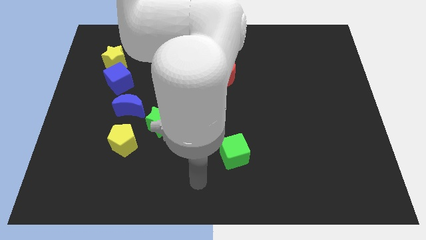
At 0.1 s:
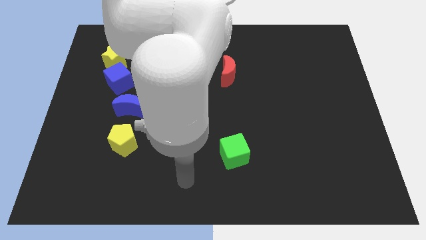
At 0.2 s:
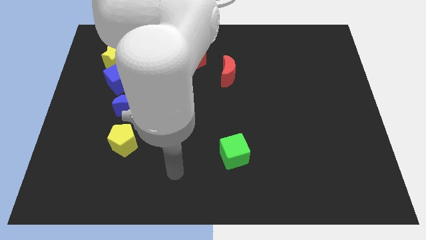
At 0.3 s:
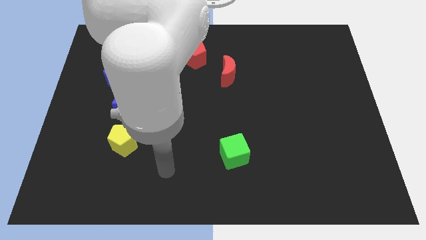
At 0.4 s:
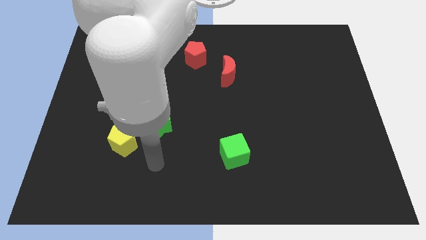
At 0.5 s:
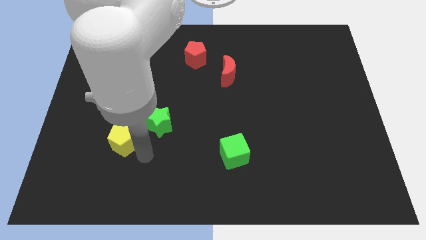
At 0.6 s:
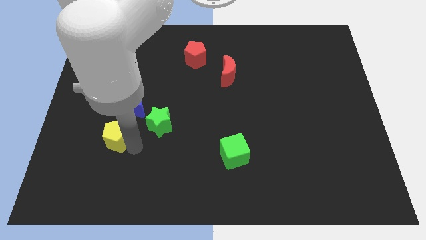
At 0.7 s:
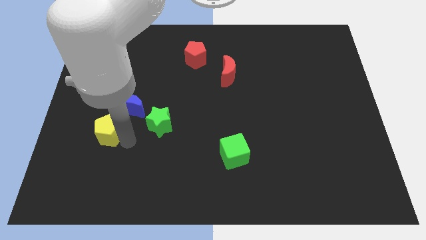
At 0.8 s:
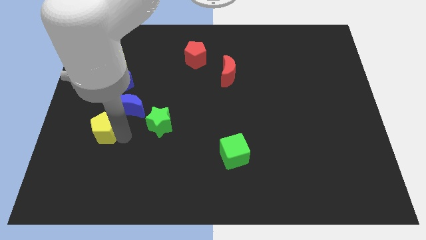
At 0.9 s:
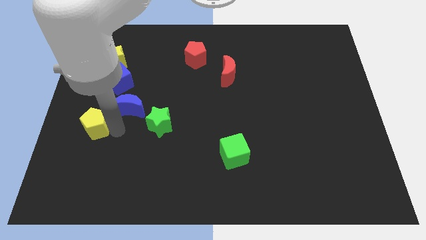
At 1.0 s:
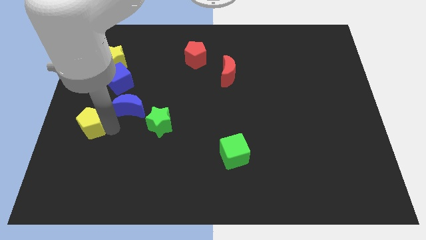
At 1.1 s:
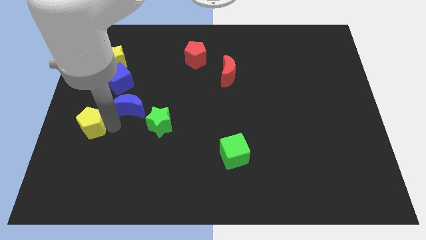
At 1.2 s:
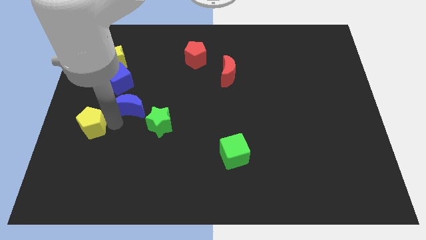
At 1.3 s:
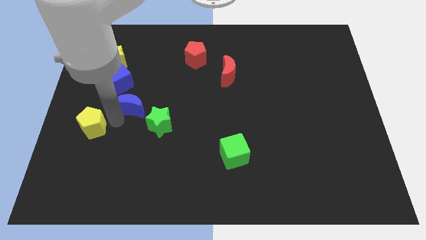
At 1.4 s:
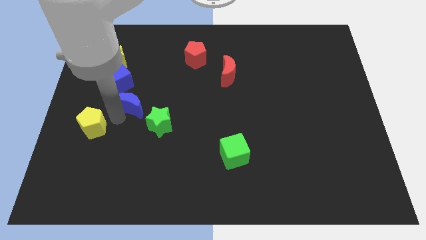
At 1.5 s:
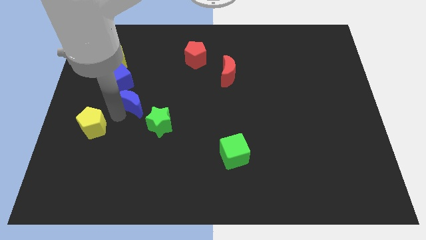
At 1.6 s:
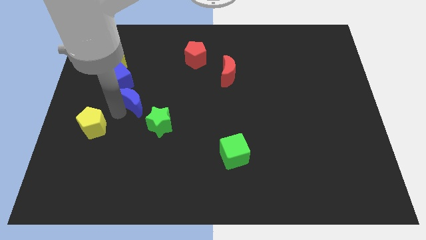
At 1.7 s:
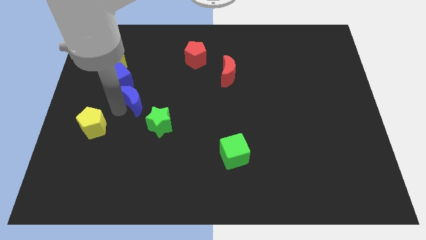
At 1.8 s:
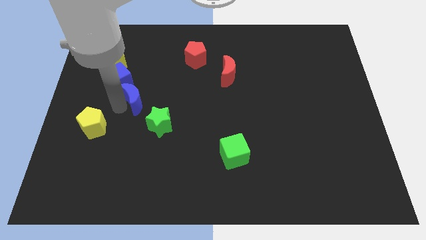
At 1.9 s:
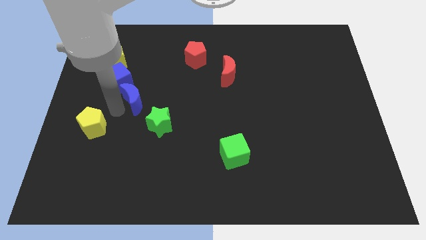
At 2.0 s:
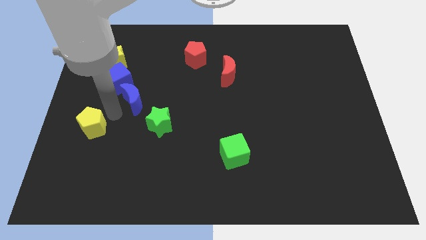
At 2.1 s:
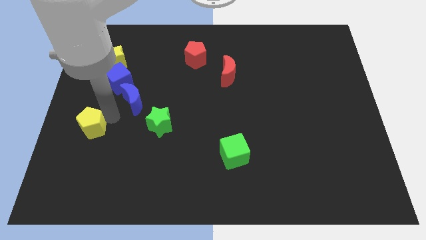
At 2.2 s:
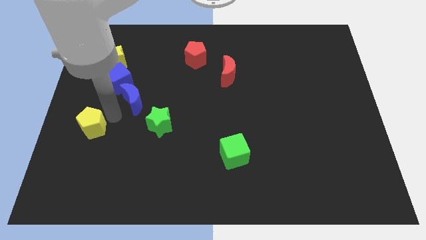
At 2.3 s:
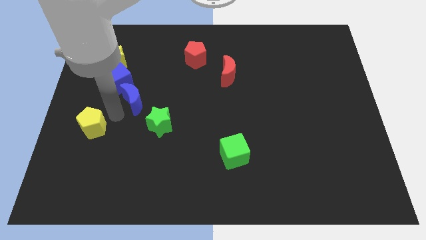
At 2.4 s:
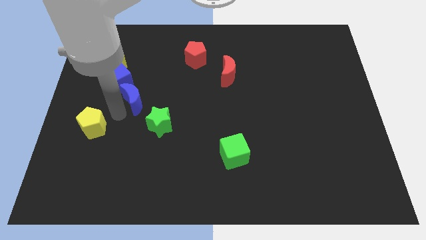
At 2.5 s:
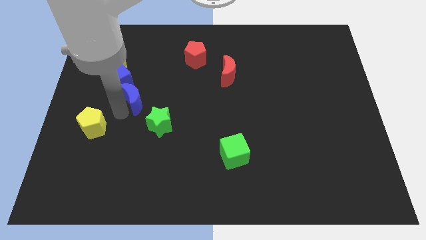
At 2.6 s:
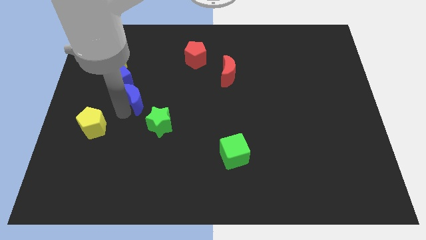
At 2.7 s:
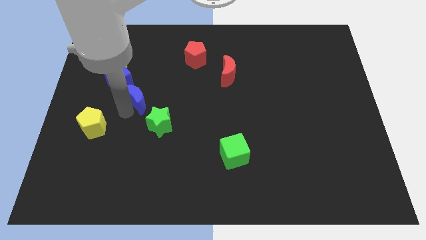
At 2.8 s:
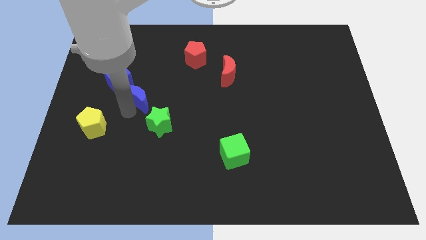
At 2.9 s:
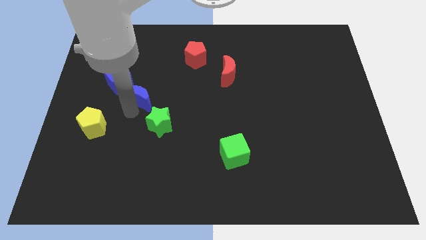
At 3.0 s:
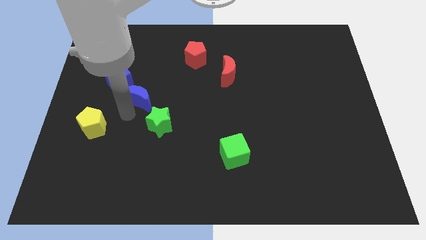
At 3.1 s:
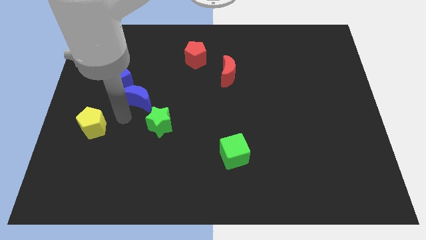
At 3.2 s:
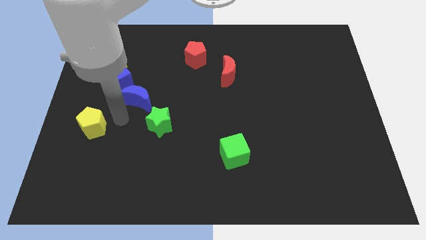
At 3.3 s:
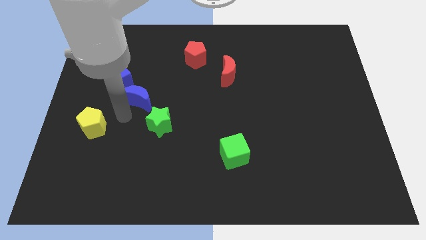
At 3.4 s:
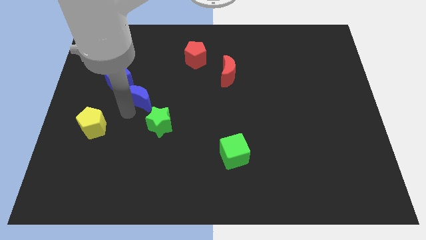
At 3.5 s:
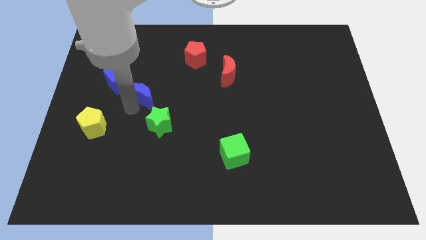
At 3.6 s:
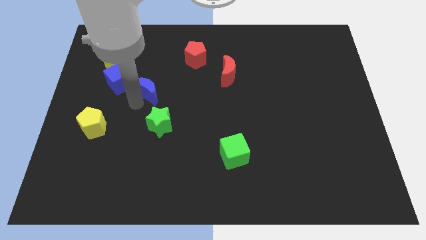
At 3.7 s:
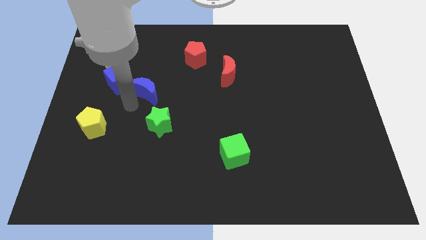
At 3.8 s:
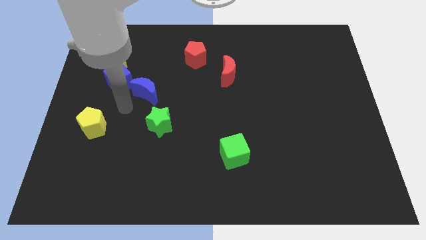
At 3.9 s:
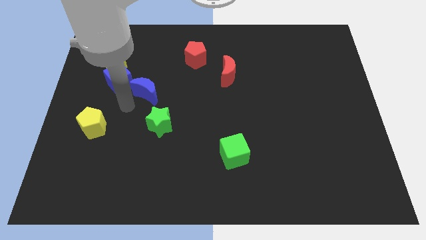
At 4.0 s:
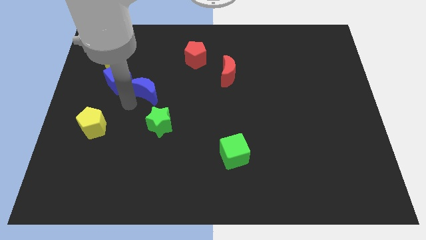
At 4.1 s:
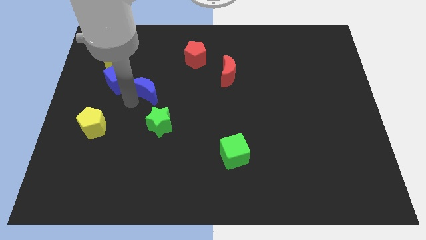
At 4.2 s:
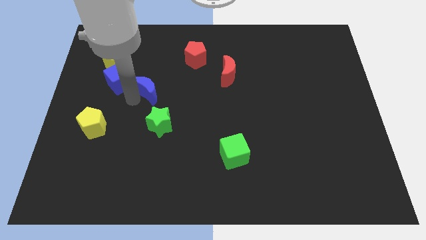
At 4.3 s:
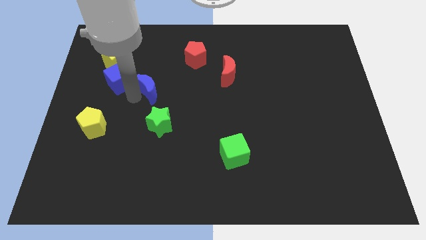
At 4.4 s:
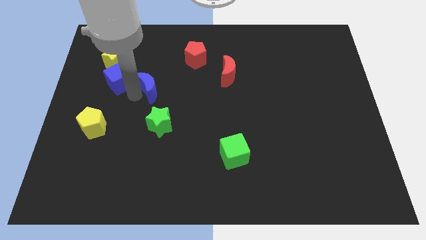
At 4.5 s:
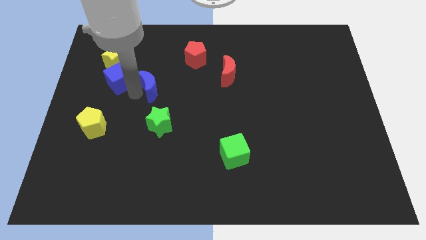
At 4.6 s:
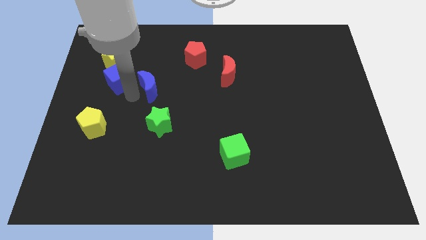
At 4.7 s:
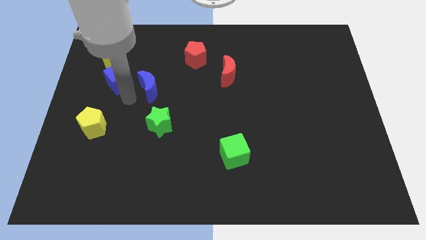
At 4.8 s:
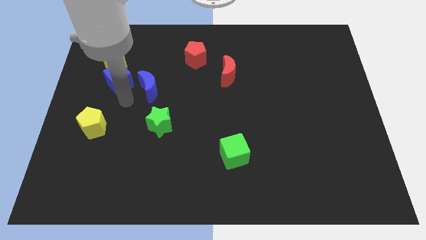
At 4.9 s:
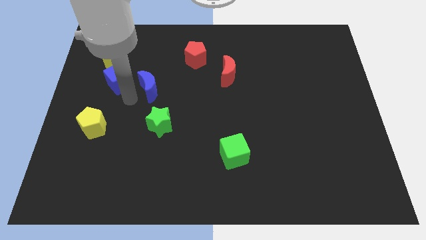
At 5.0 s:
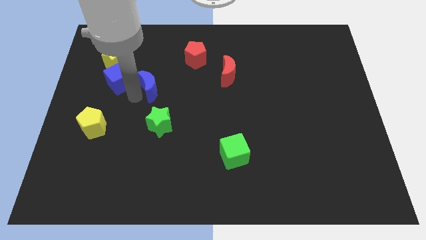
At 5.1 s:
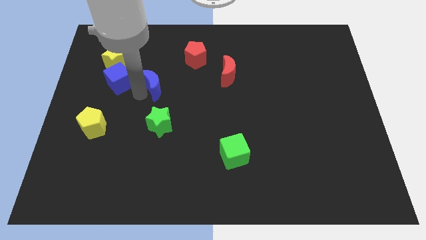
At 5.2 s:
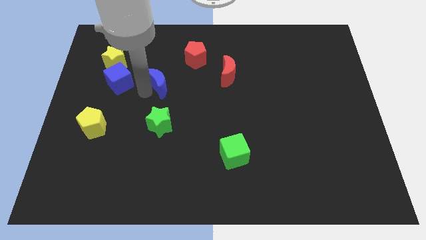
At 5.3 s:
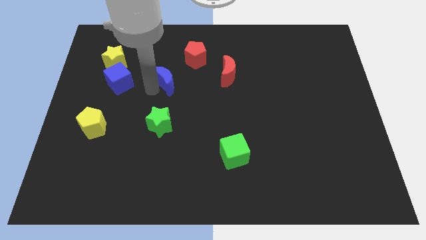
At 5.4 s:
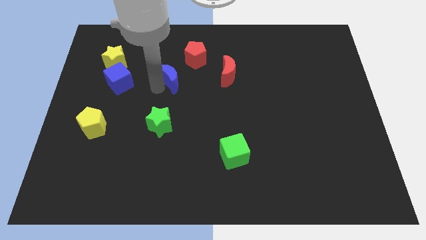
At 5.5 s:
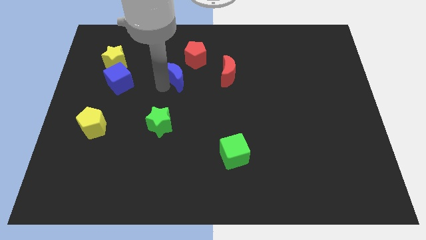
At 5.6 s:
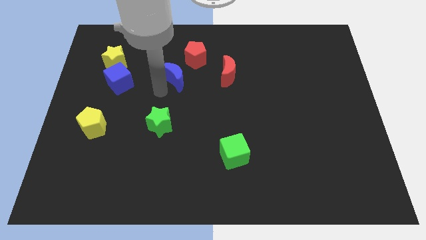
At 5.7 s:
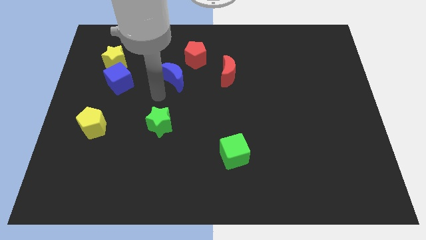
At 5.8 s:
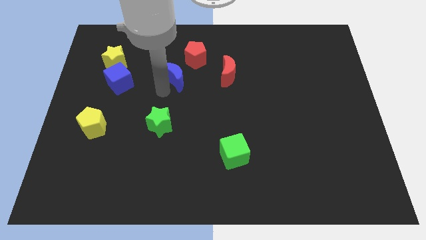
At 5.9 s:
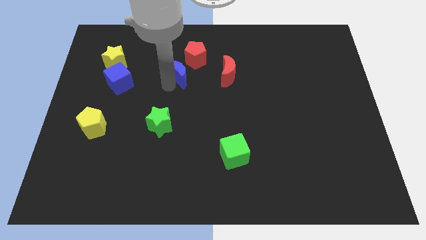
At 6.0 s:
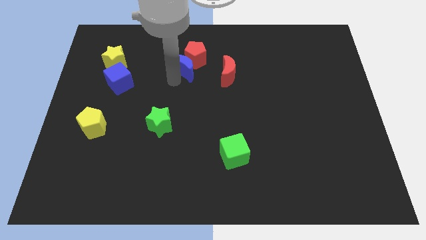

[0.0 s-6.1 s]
put the blue moon next to the red pentagon

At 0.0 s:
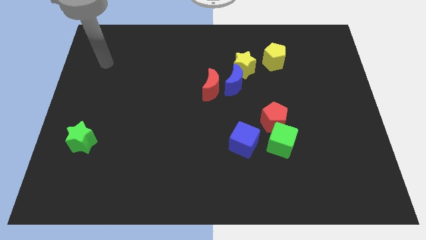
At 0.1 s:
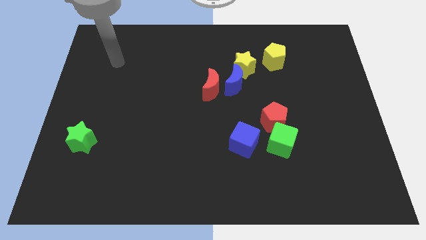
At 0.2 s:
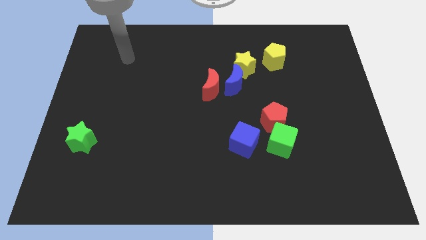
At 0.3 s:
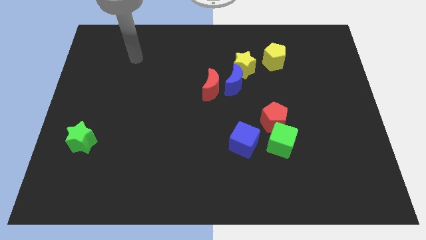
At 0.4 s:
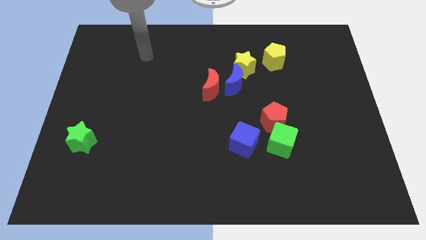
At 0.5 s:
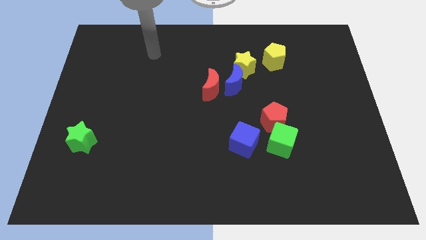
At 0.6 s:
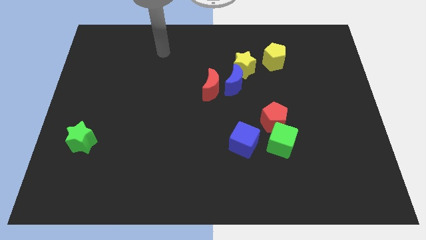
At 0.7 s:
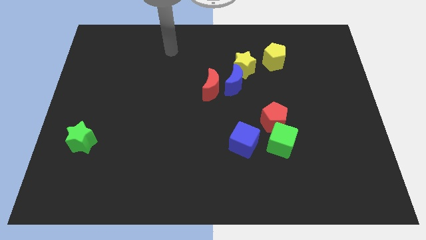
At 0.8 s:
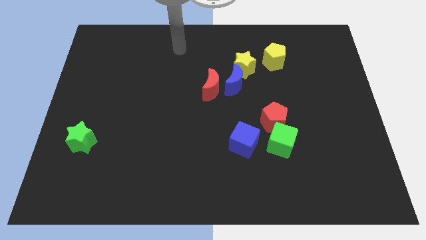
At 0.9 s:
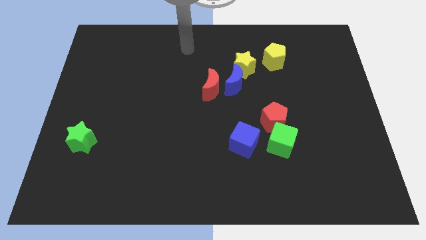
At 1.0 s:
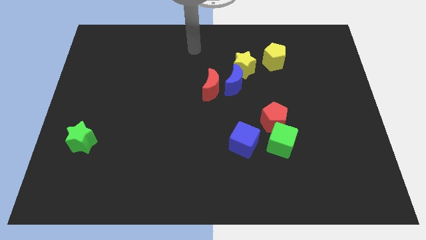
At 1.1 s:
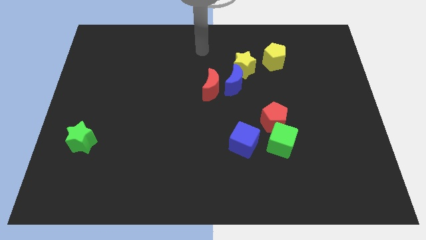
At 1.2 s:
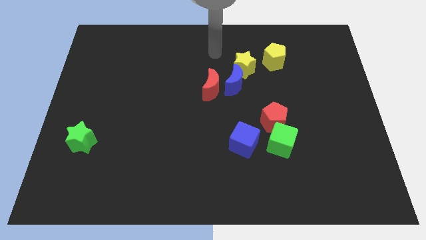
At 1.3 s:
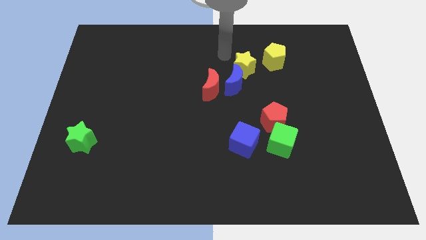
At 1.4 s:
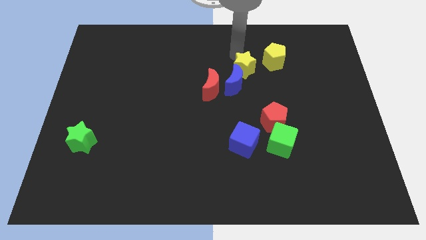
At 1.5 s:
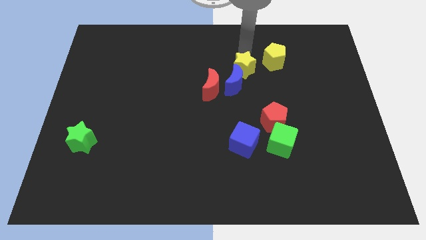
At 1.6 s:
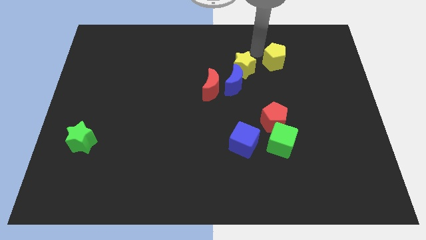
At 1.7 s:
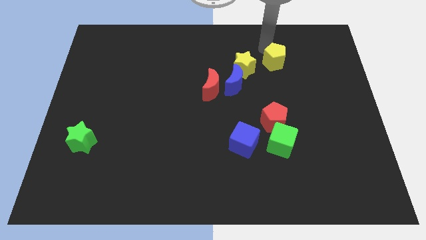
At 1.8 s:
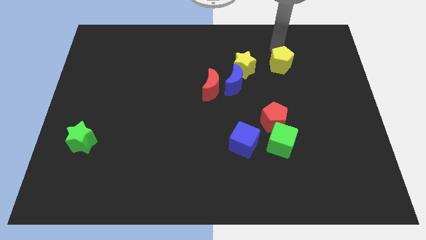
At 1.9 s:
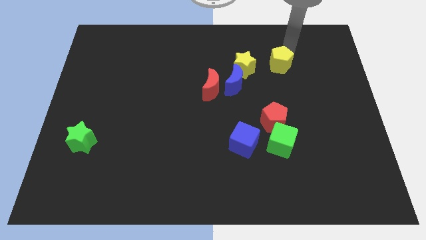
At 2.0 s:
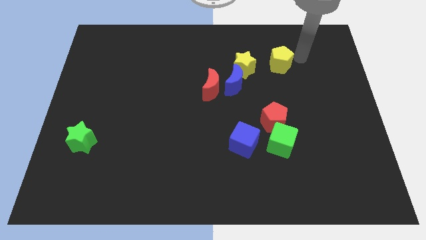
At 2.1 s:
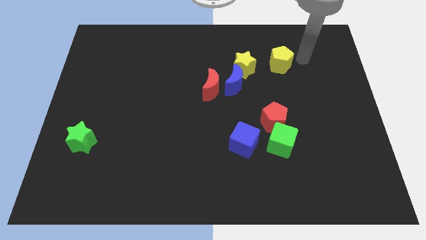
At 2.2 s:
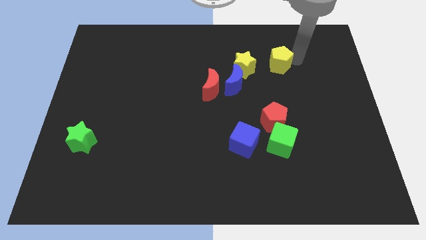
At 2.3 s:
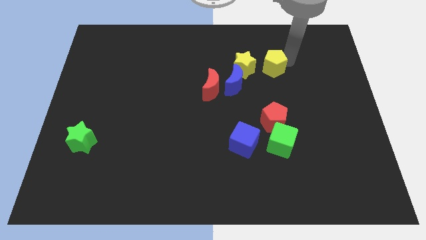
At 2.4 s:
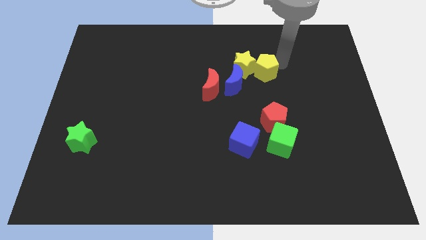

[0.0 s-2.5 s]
push the yellow pentagon next to the yellow star
